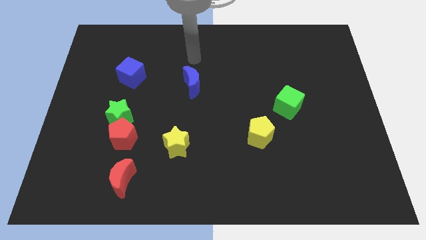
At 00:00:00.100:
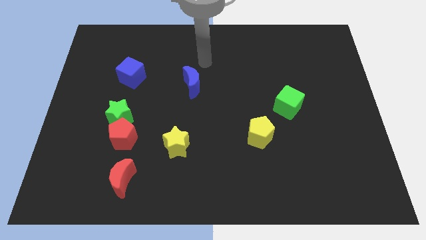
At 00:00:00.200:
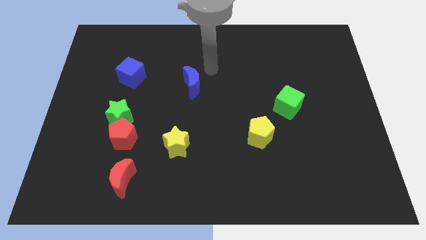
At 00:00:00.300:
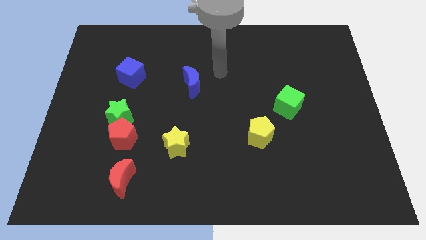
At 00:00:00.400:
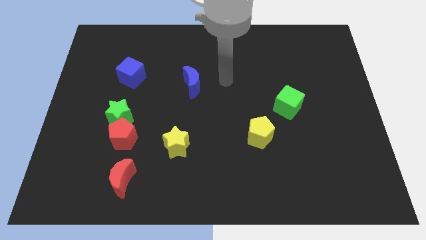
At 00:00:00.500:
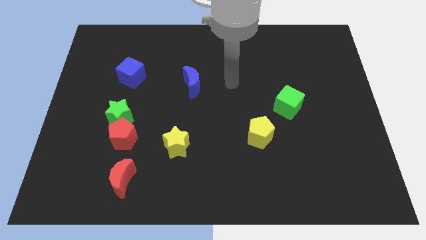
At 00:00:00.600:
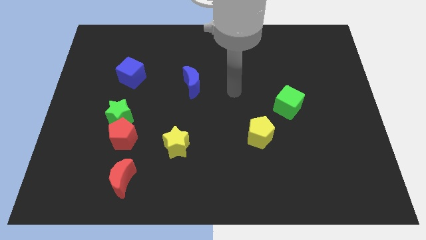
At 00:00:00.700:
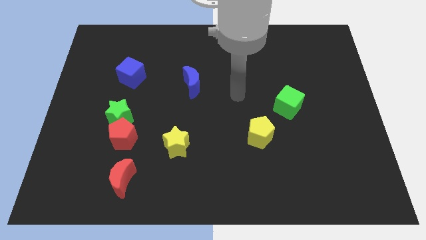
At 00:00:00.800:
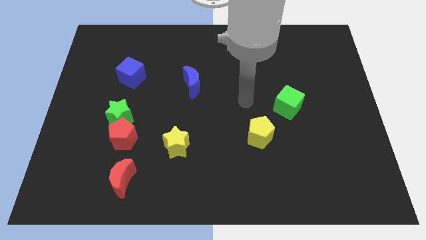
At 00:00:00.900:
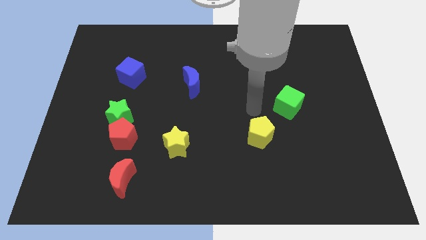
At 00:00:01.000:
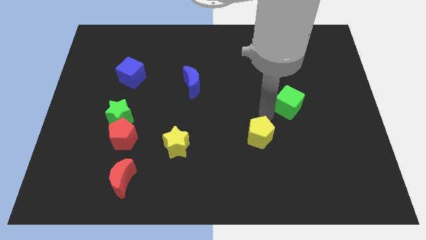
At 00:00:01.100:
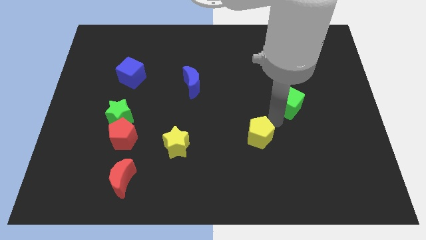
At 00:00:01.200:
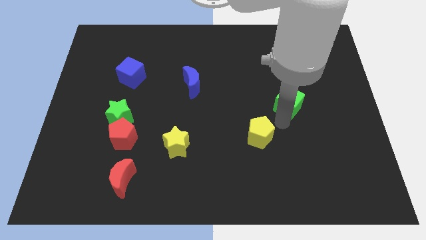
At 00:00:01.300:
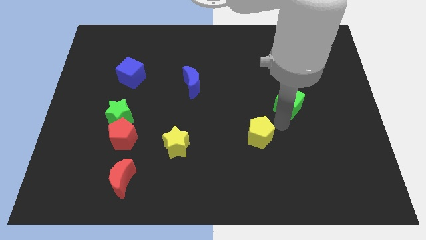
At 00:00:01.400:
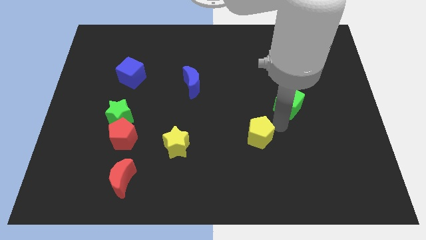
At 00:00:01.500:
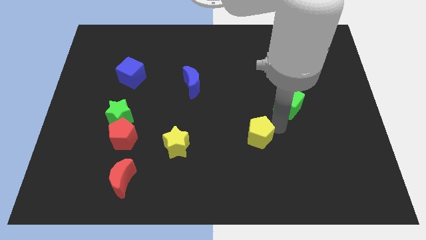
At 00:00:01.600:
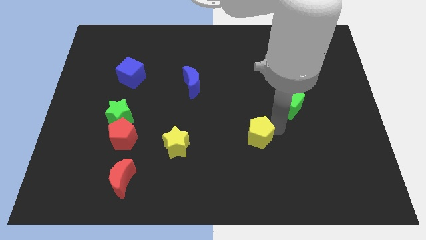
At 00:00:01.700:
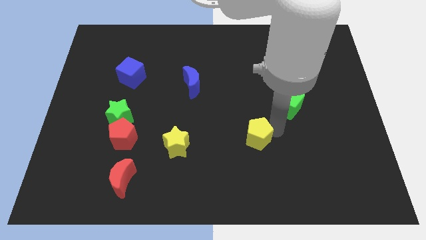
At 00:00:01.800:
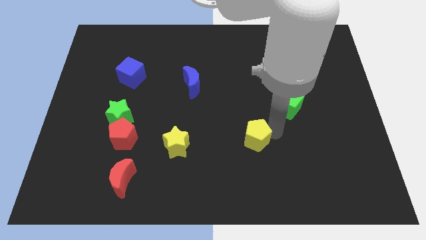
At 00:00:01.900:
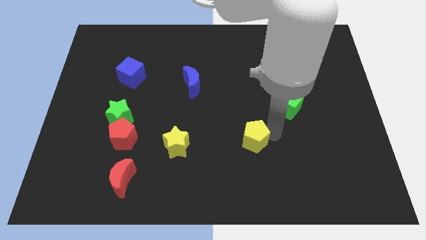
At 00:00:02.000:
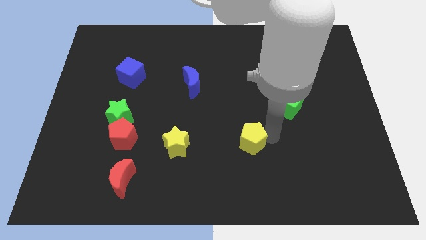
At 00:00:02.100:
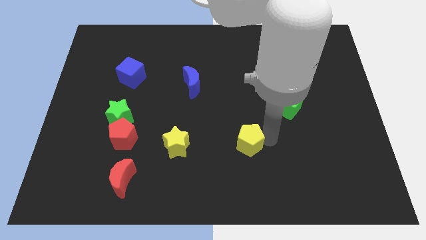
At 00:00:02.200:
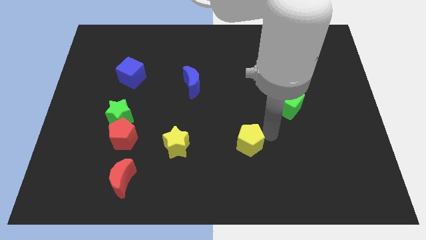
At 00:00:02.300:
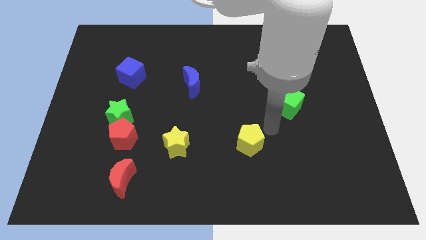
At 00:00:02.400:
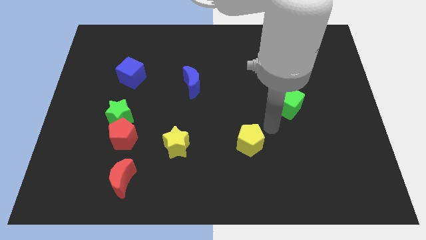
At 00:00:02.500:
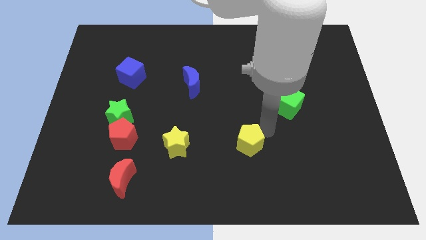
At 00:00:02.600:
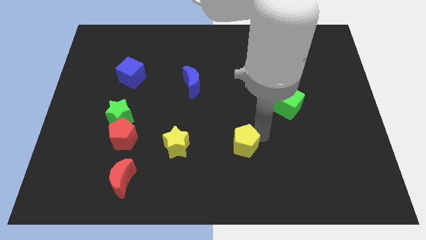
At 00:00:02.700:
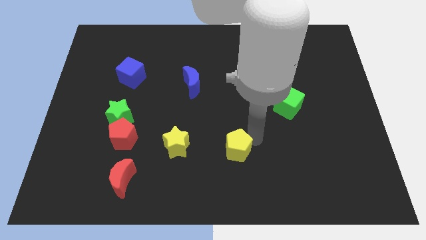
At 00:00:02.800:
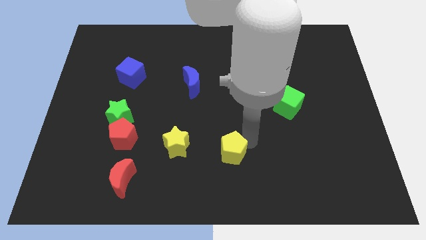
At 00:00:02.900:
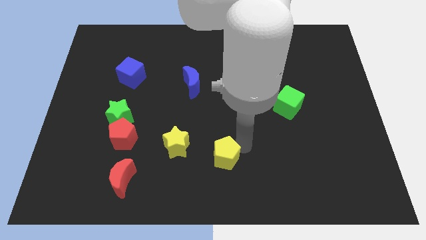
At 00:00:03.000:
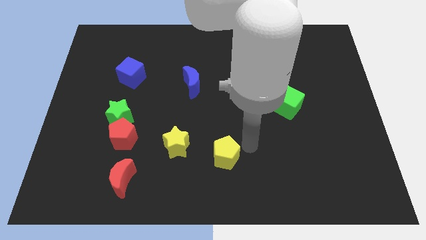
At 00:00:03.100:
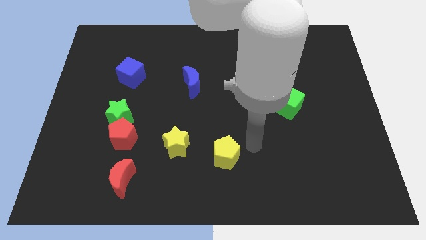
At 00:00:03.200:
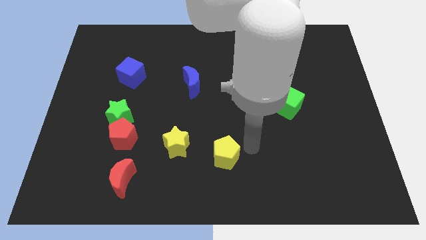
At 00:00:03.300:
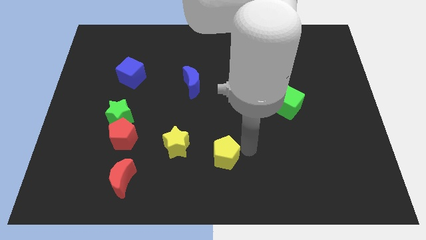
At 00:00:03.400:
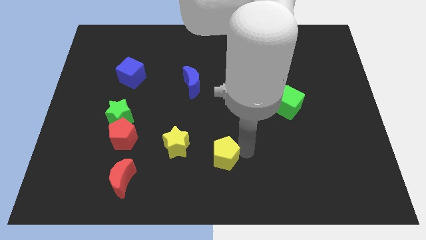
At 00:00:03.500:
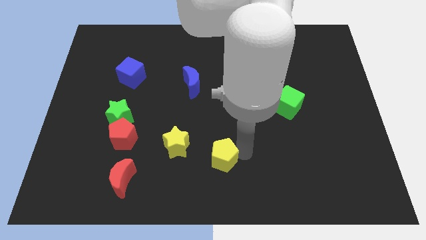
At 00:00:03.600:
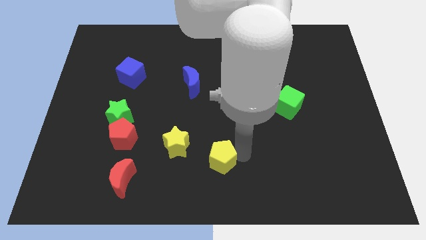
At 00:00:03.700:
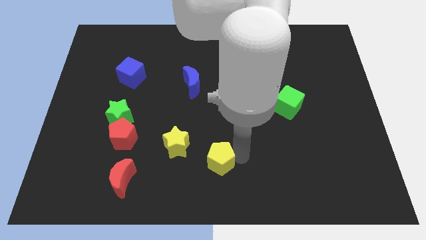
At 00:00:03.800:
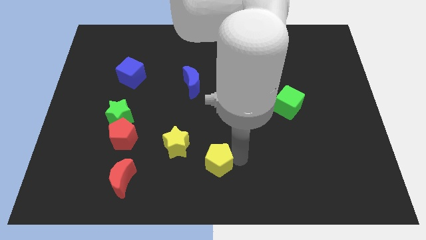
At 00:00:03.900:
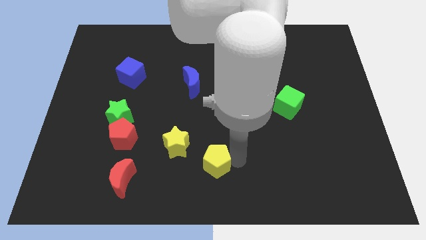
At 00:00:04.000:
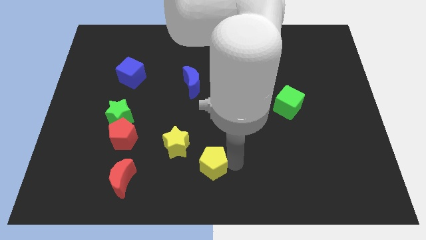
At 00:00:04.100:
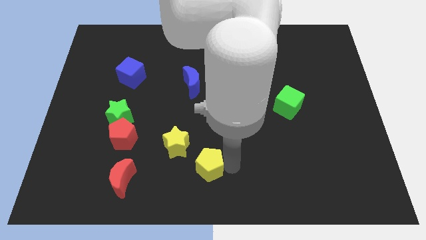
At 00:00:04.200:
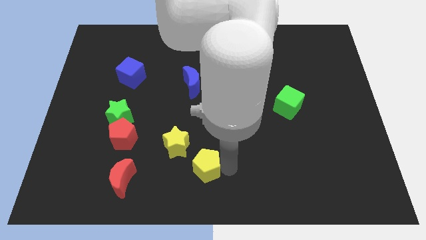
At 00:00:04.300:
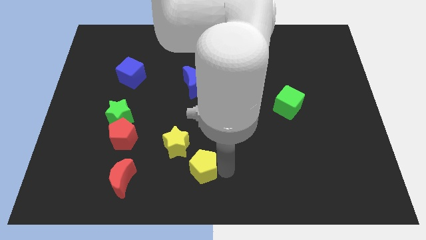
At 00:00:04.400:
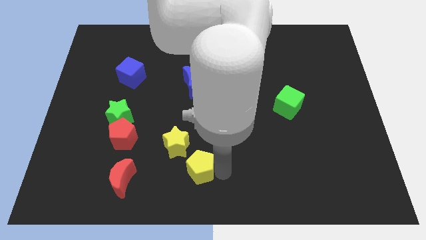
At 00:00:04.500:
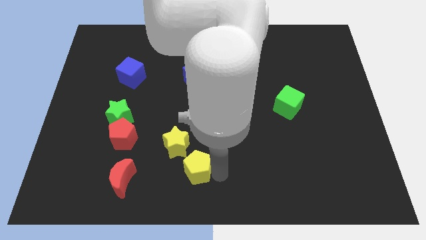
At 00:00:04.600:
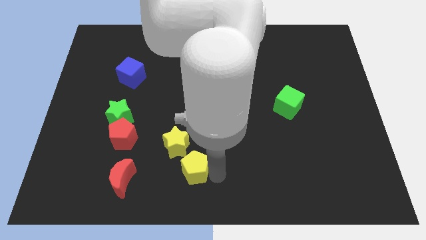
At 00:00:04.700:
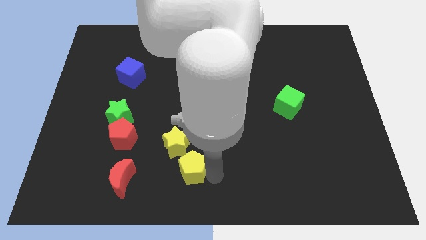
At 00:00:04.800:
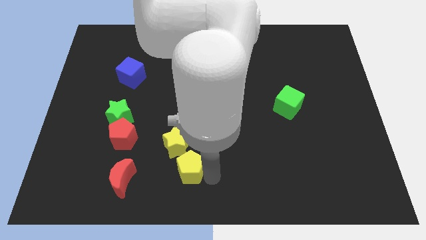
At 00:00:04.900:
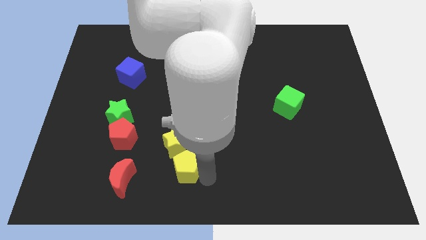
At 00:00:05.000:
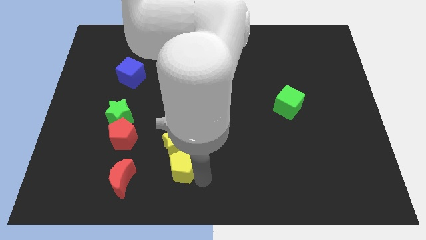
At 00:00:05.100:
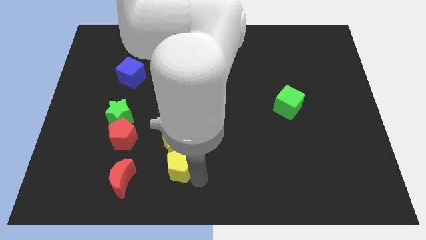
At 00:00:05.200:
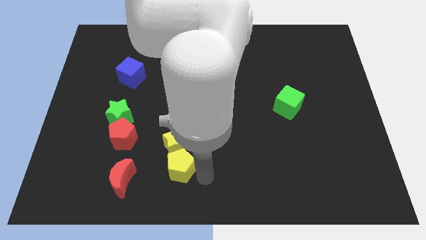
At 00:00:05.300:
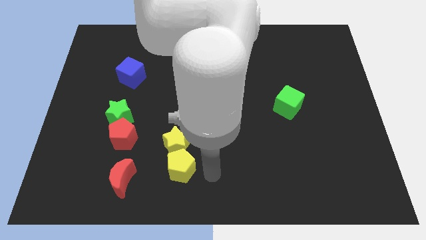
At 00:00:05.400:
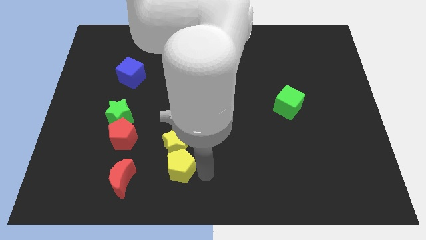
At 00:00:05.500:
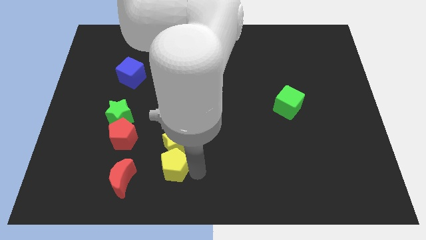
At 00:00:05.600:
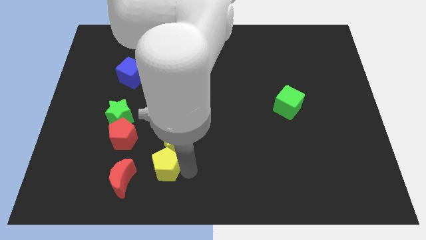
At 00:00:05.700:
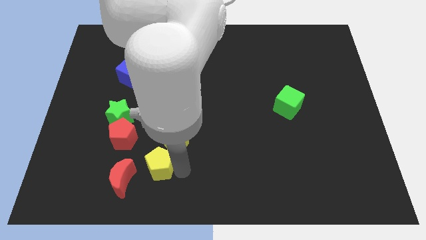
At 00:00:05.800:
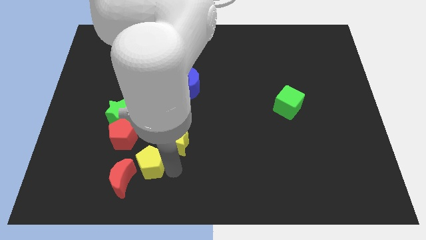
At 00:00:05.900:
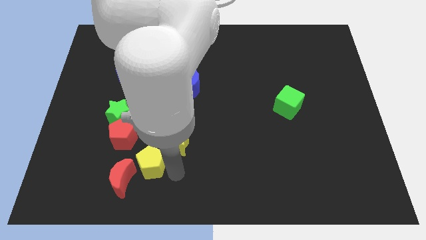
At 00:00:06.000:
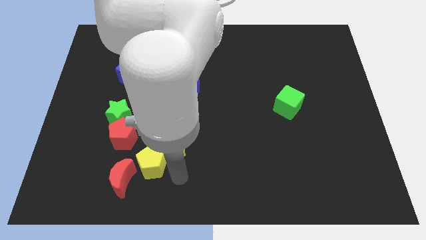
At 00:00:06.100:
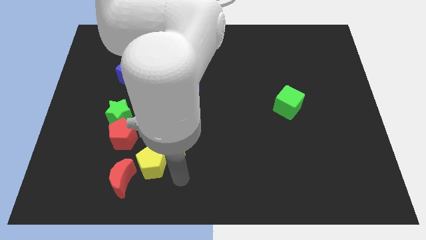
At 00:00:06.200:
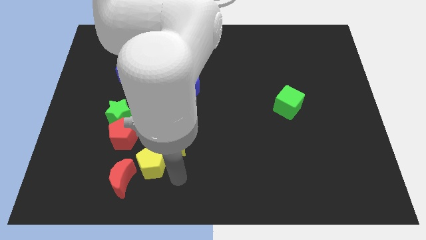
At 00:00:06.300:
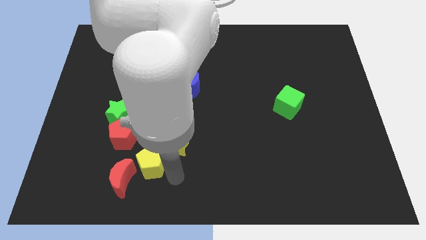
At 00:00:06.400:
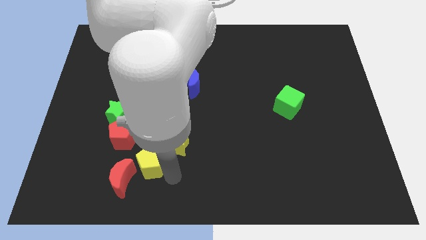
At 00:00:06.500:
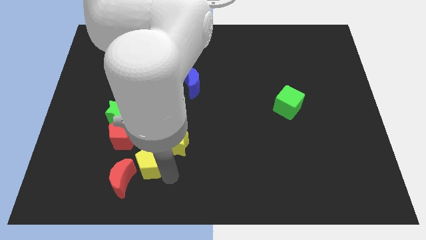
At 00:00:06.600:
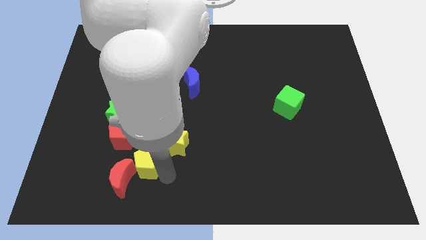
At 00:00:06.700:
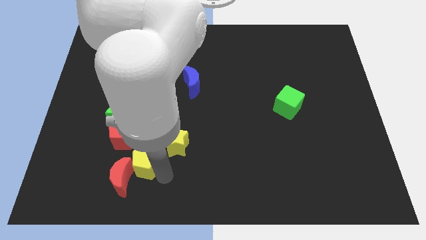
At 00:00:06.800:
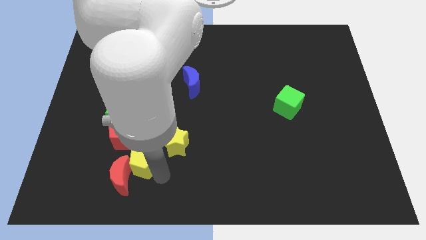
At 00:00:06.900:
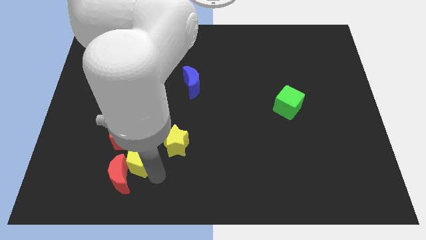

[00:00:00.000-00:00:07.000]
put the yellow pentagon to the left side of the yellow star
